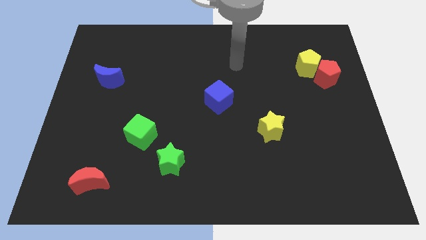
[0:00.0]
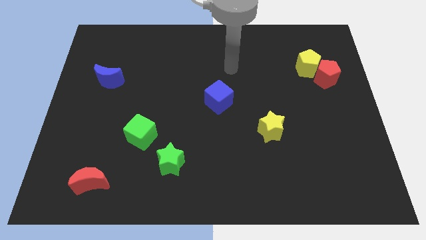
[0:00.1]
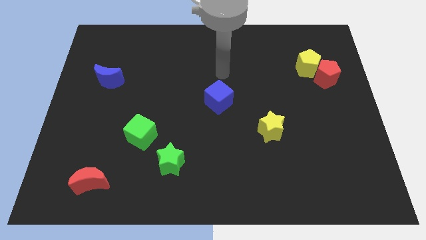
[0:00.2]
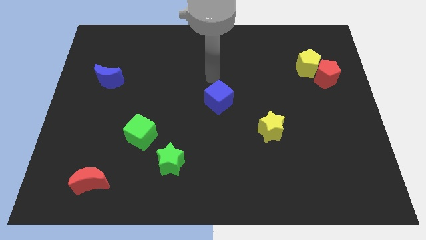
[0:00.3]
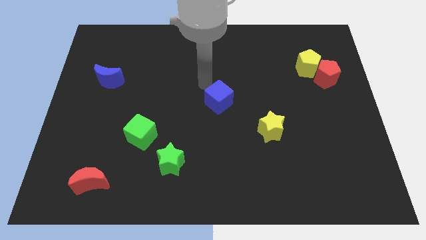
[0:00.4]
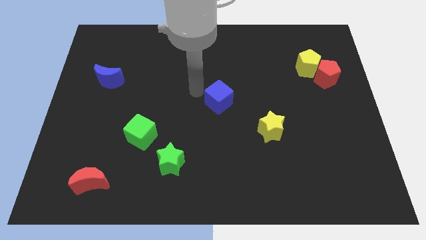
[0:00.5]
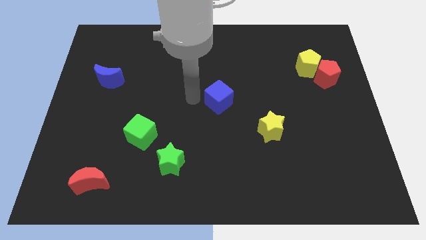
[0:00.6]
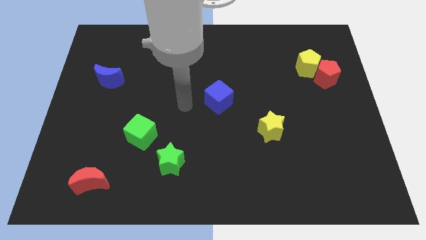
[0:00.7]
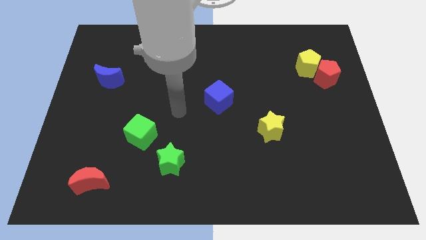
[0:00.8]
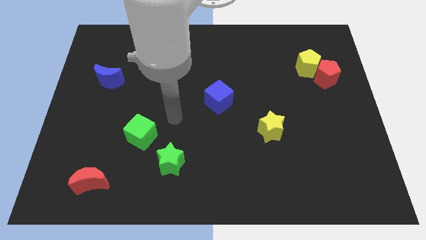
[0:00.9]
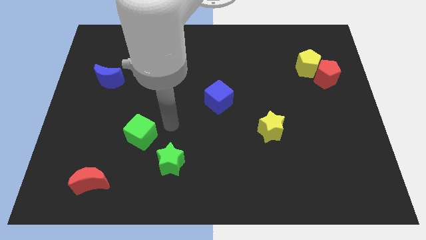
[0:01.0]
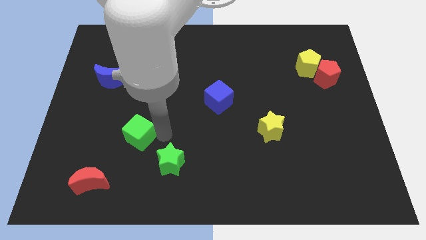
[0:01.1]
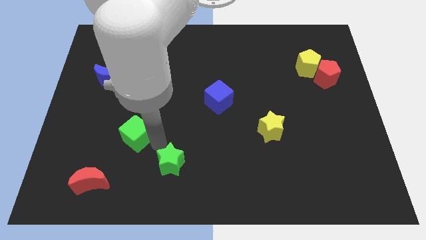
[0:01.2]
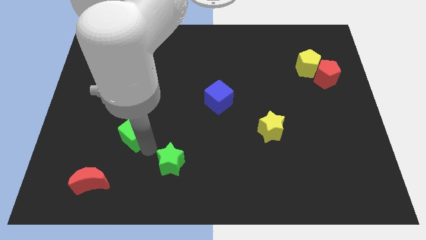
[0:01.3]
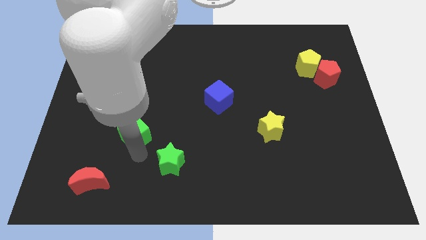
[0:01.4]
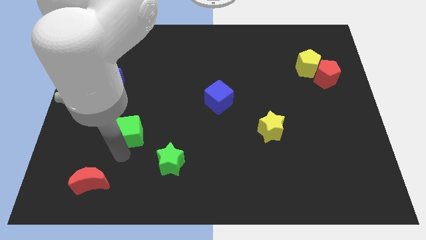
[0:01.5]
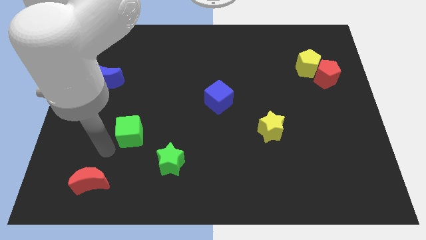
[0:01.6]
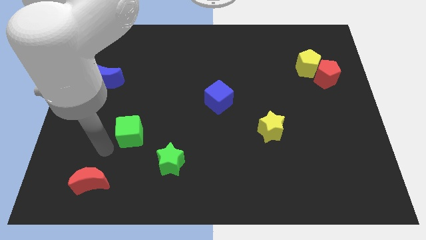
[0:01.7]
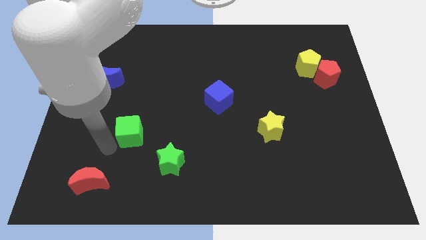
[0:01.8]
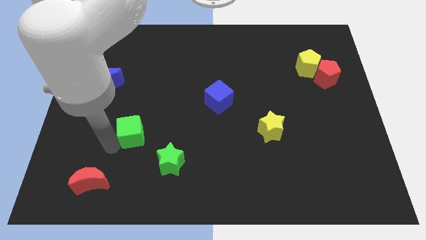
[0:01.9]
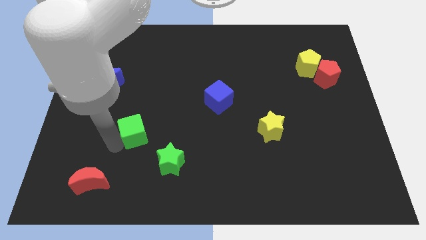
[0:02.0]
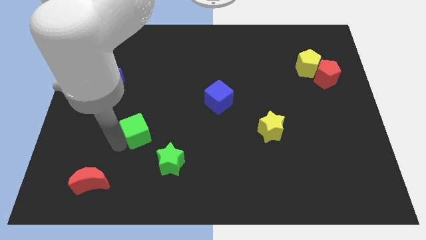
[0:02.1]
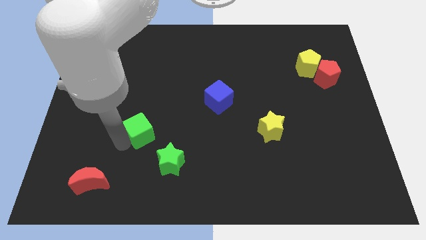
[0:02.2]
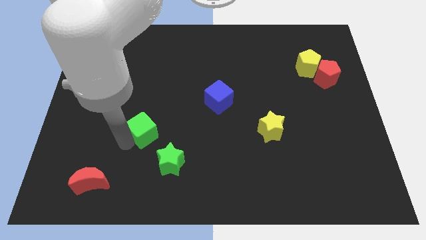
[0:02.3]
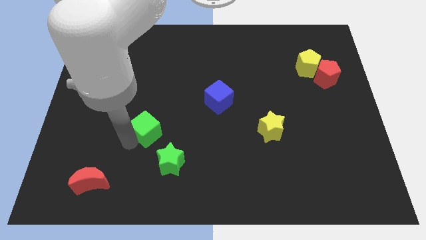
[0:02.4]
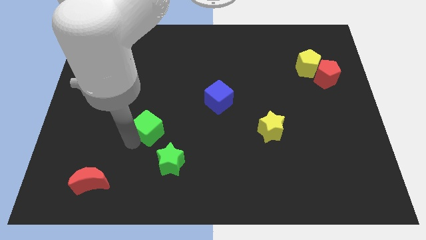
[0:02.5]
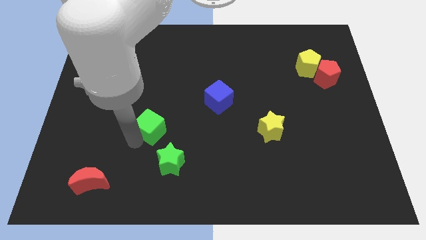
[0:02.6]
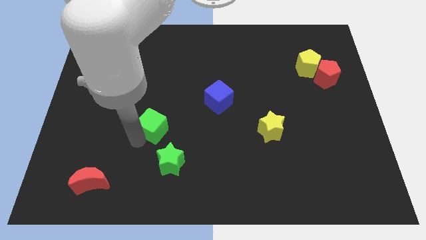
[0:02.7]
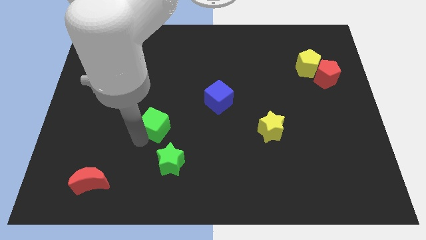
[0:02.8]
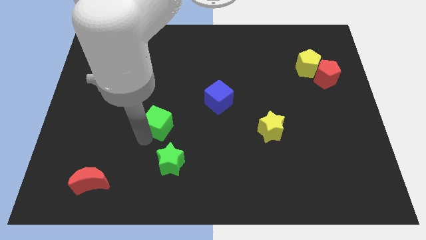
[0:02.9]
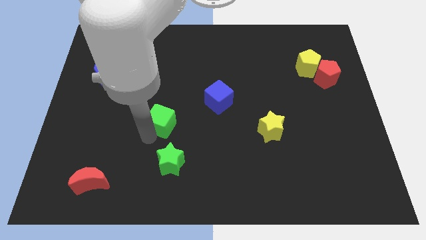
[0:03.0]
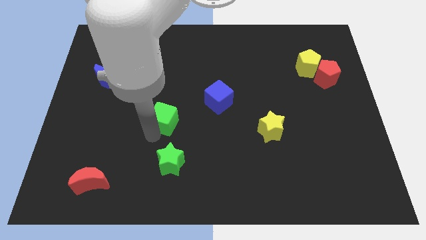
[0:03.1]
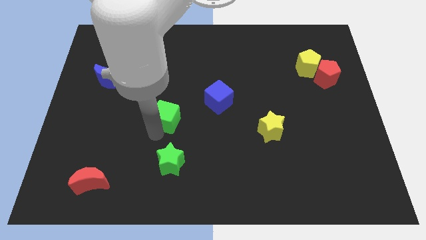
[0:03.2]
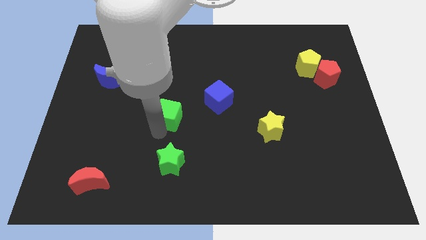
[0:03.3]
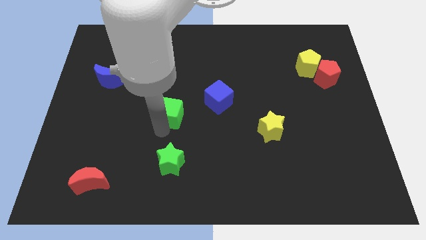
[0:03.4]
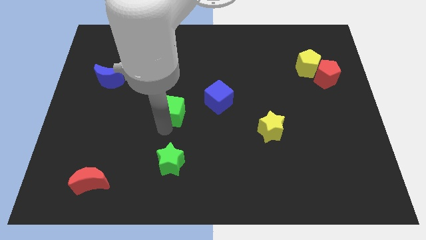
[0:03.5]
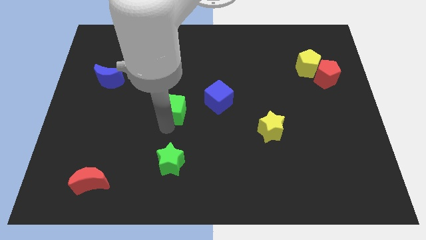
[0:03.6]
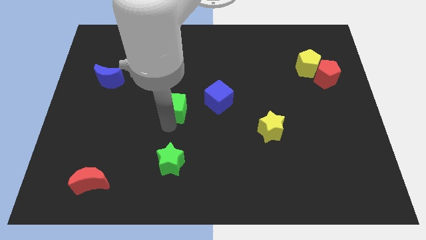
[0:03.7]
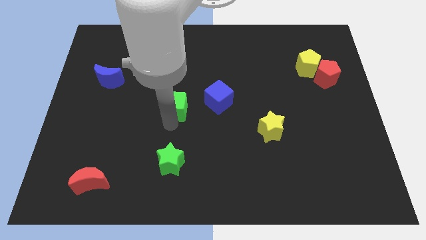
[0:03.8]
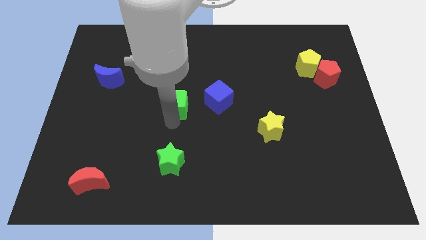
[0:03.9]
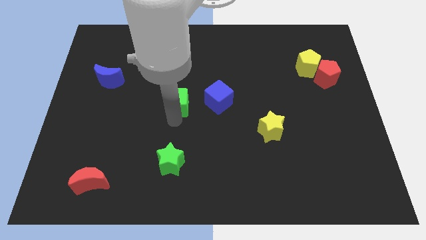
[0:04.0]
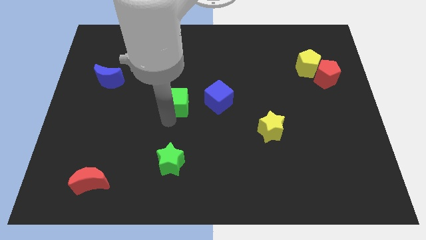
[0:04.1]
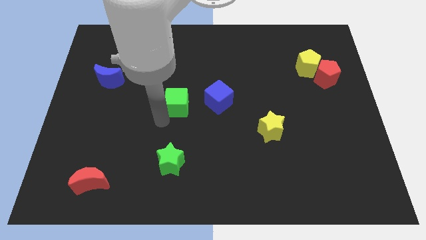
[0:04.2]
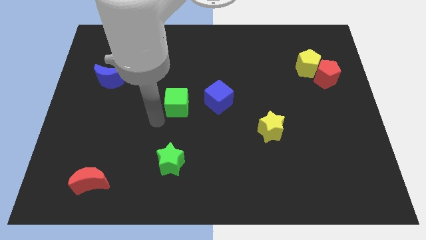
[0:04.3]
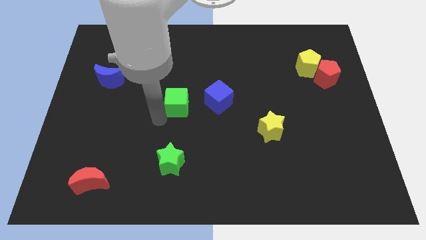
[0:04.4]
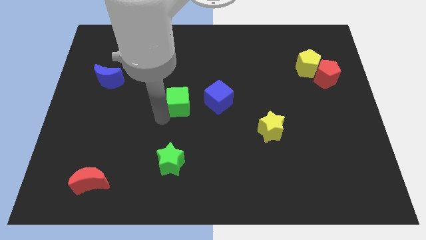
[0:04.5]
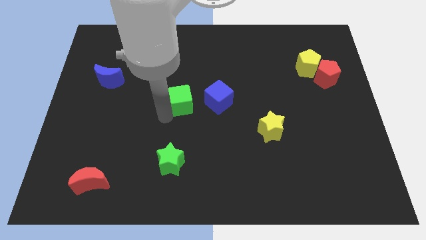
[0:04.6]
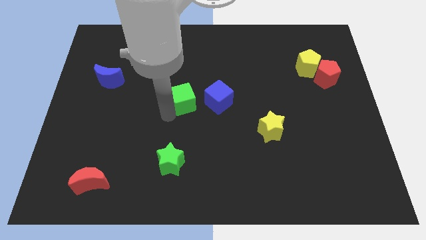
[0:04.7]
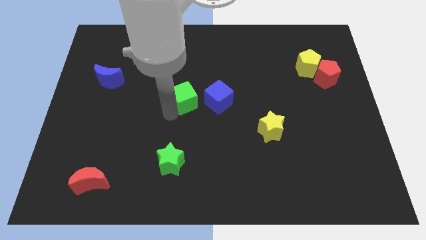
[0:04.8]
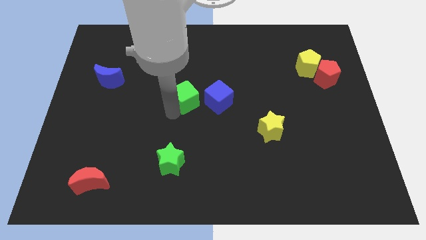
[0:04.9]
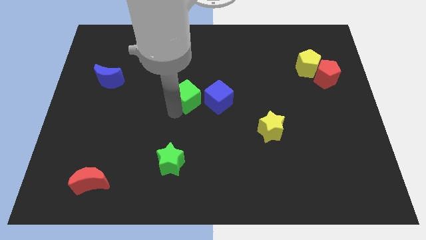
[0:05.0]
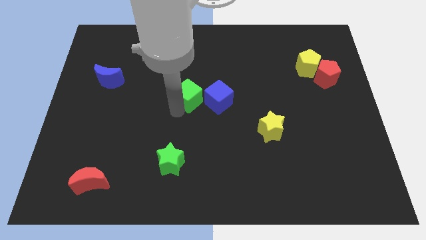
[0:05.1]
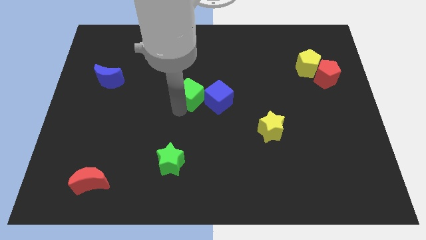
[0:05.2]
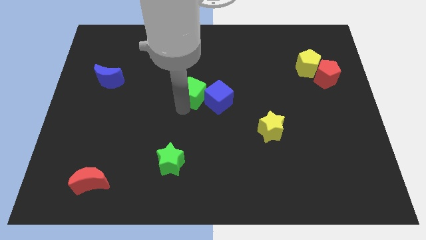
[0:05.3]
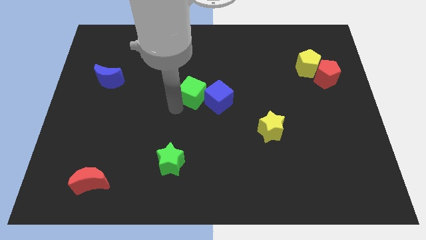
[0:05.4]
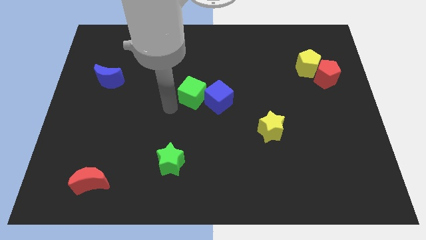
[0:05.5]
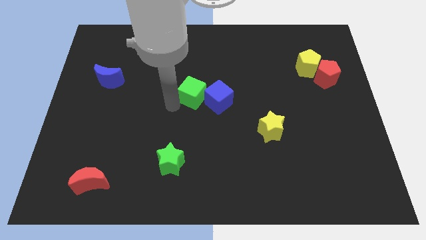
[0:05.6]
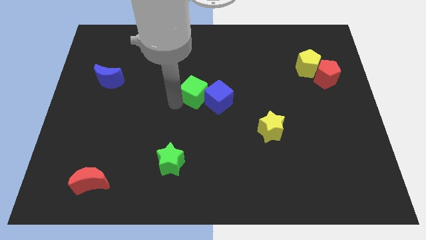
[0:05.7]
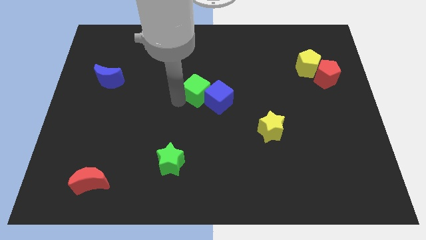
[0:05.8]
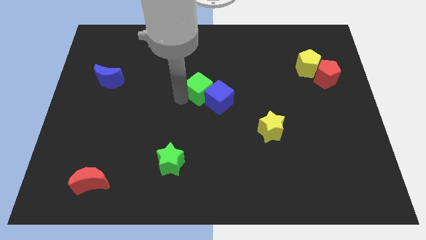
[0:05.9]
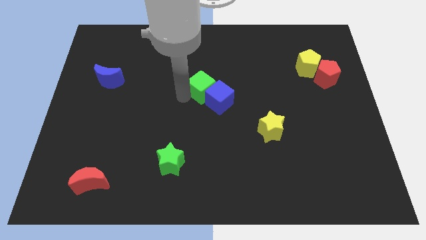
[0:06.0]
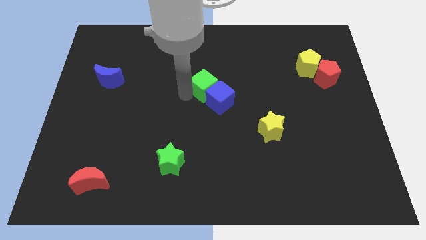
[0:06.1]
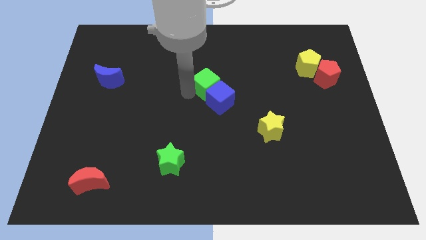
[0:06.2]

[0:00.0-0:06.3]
move the green cube up and to the right diagonally

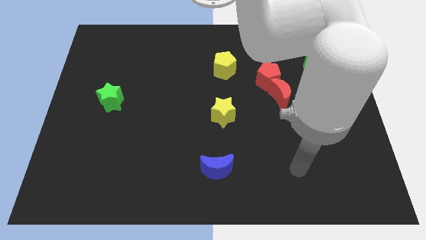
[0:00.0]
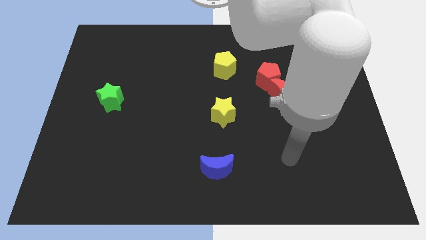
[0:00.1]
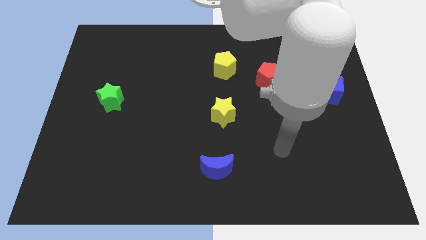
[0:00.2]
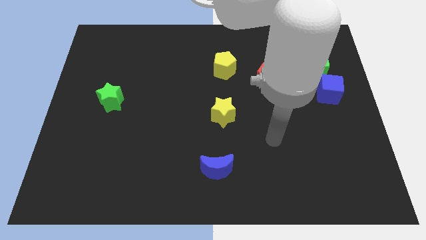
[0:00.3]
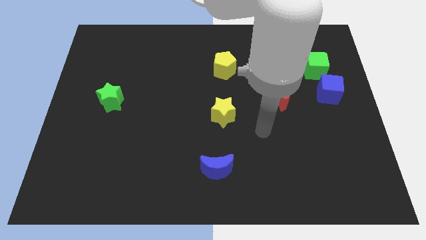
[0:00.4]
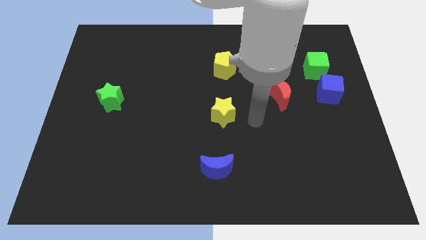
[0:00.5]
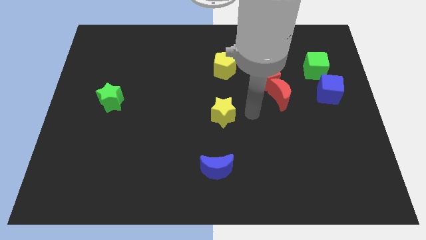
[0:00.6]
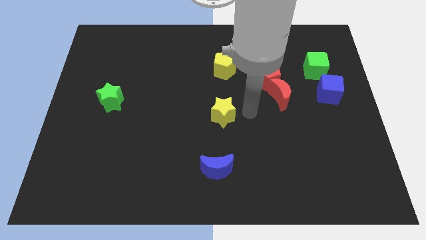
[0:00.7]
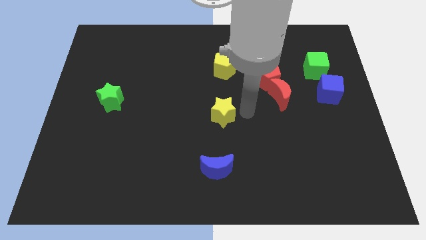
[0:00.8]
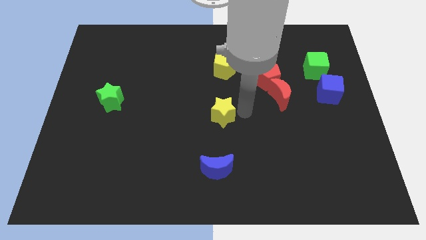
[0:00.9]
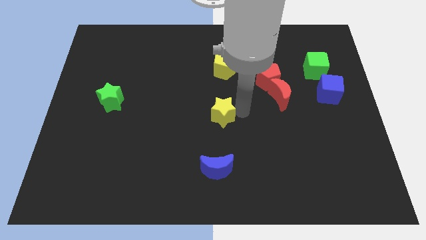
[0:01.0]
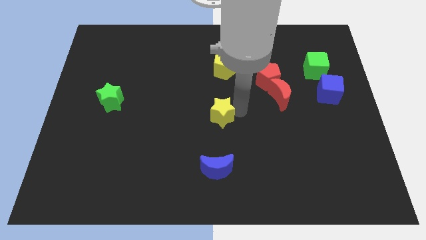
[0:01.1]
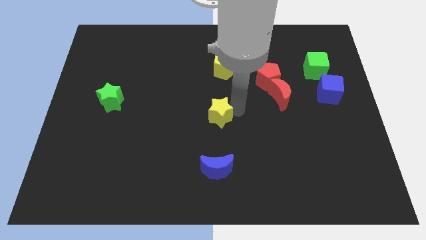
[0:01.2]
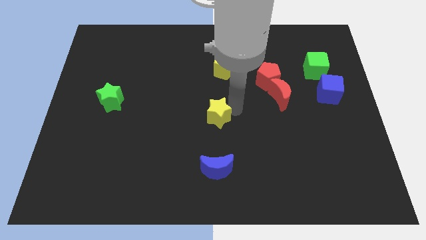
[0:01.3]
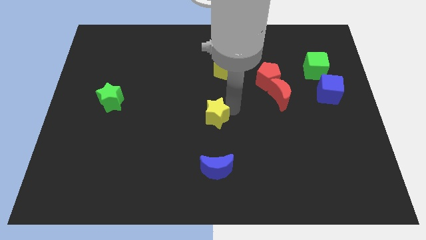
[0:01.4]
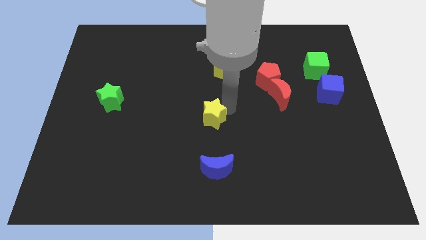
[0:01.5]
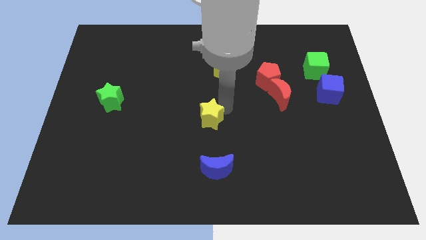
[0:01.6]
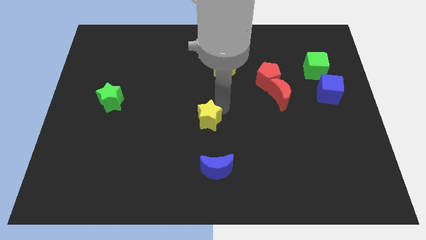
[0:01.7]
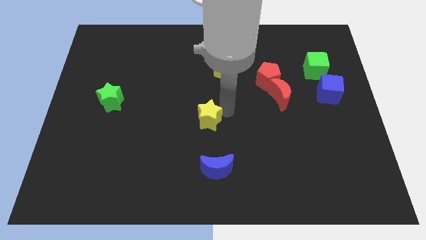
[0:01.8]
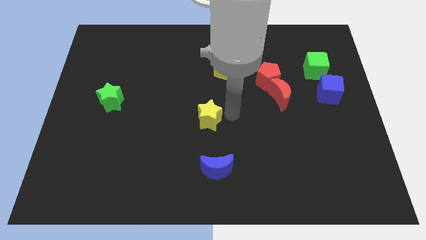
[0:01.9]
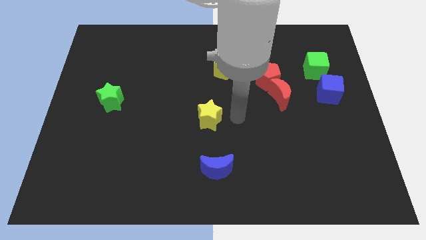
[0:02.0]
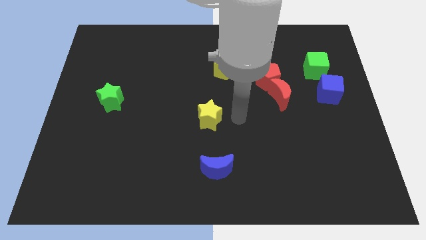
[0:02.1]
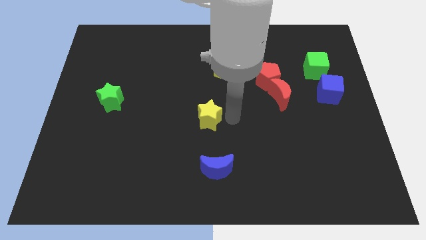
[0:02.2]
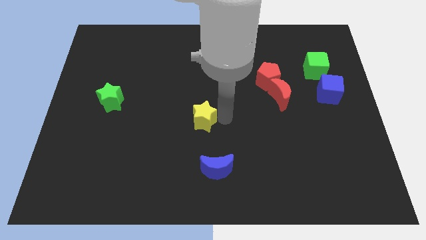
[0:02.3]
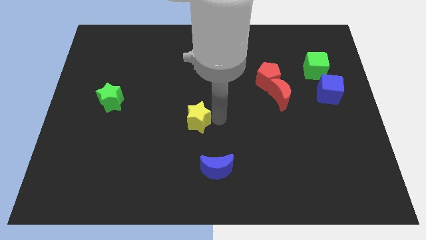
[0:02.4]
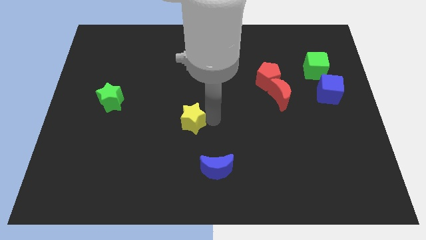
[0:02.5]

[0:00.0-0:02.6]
slightly slide the yellow star to the left
